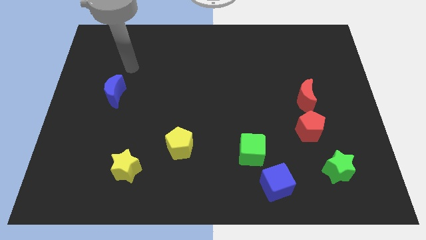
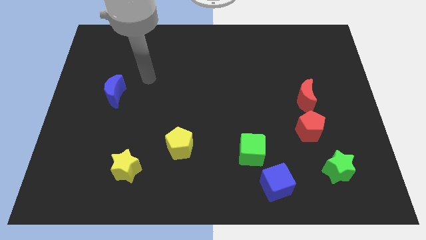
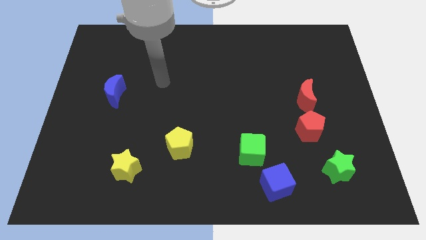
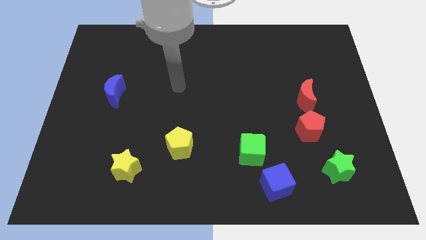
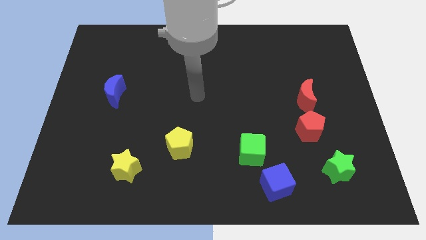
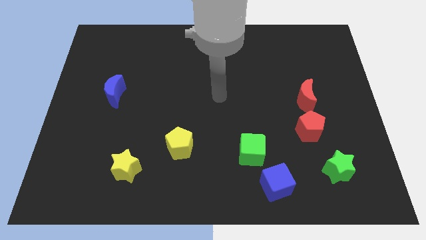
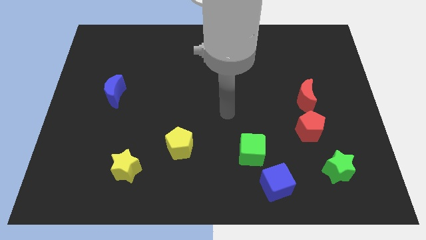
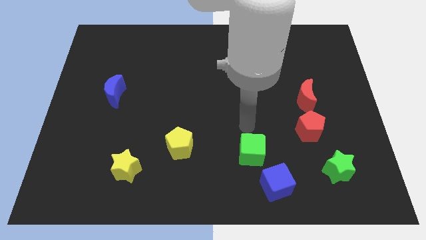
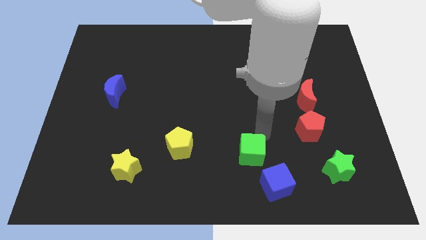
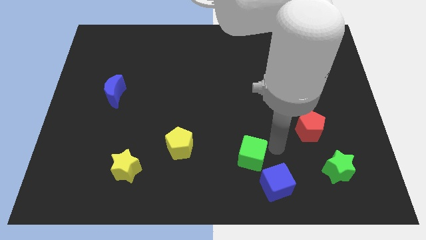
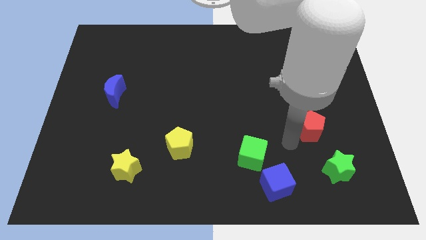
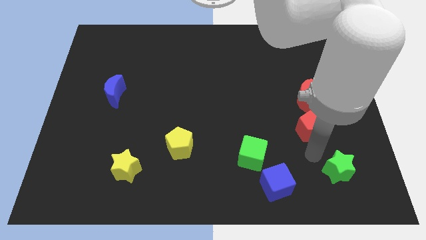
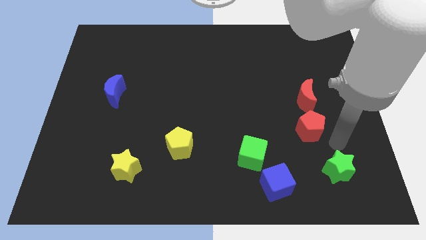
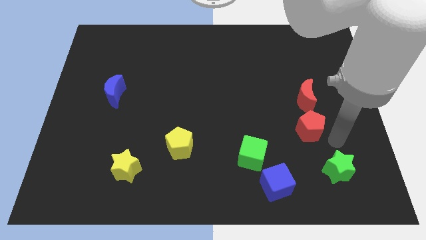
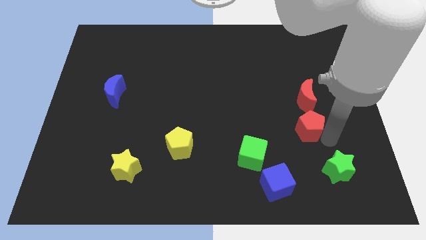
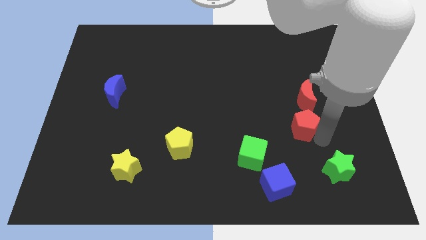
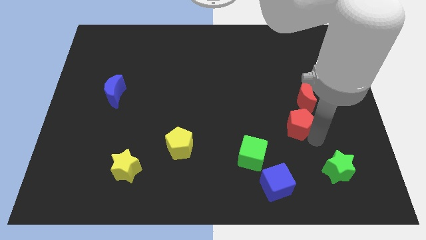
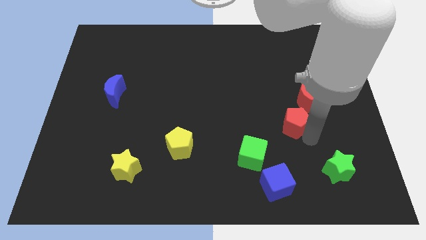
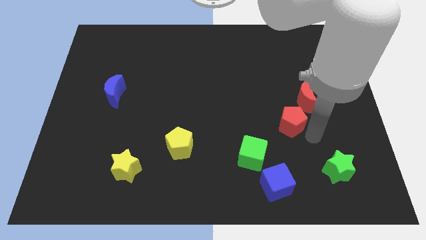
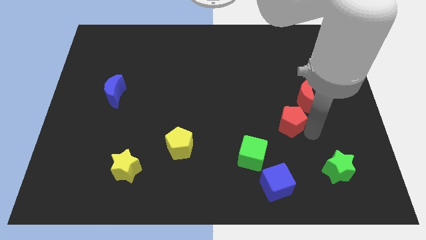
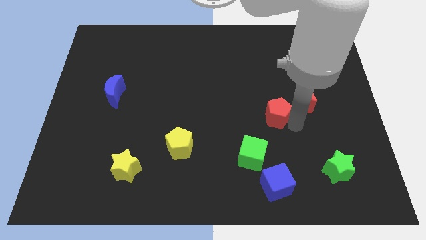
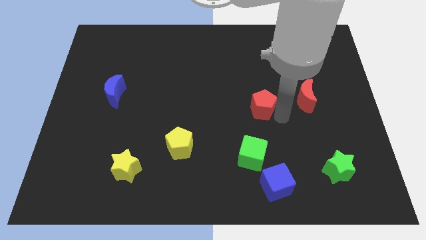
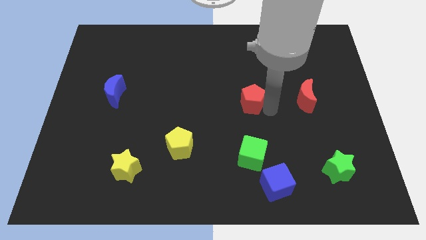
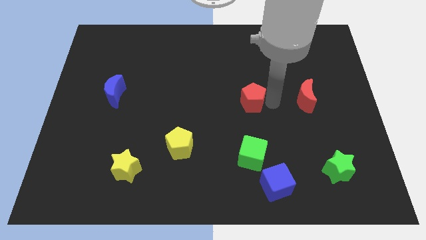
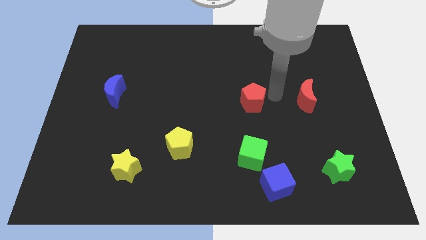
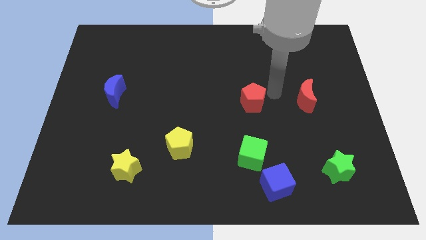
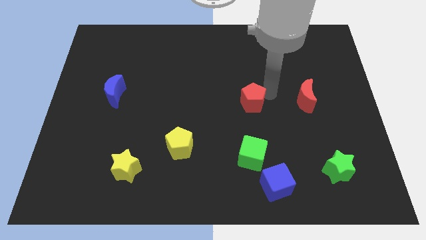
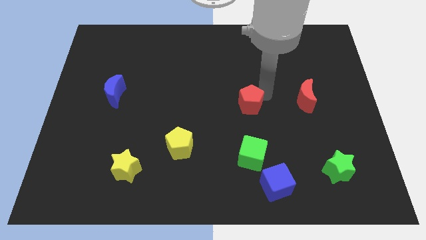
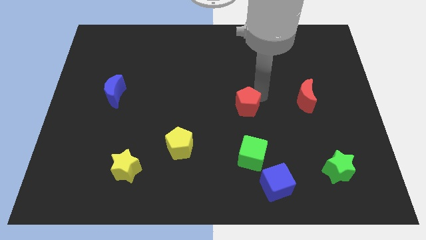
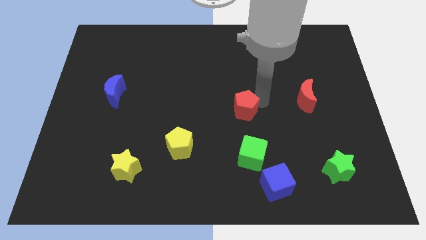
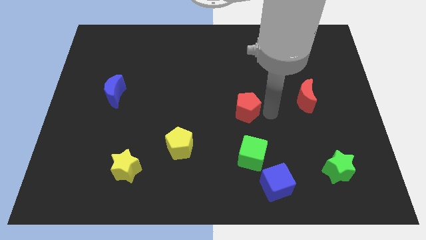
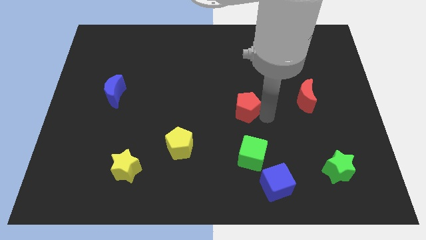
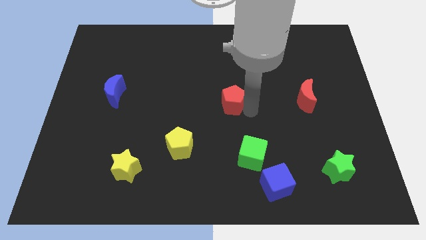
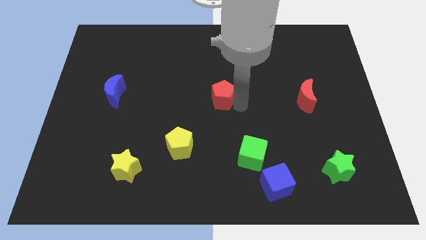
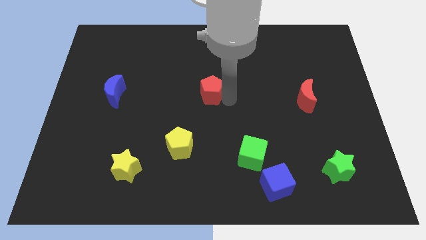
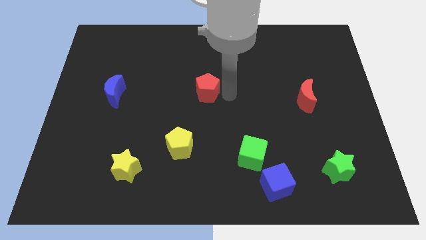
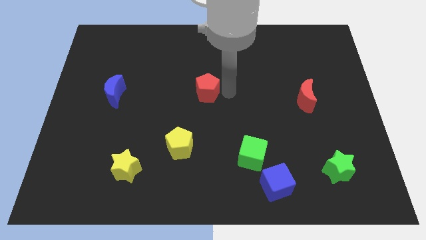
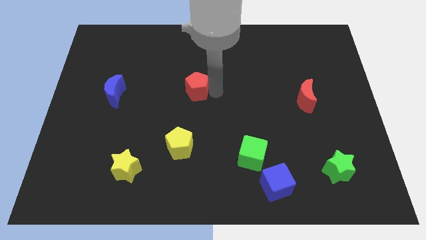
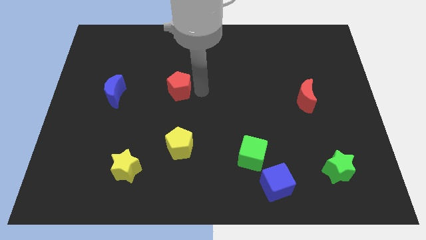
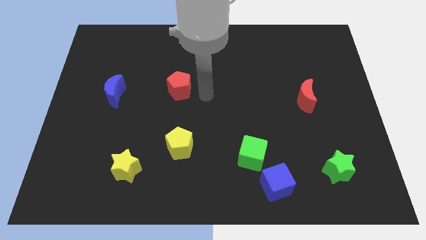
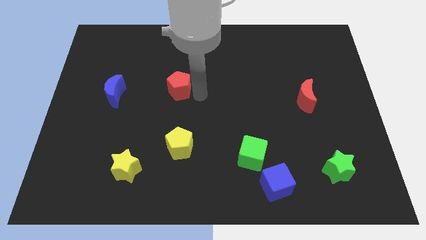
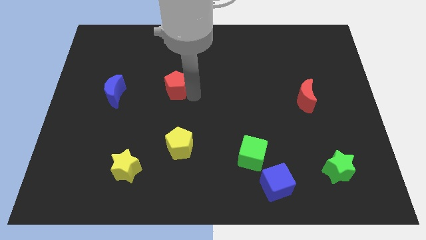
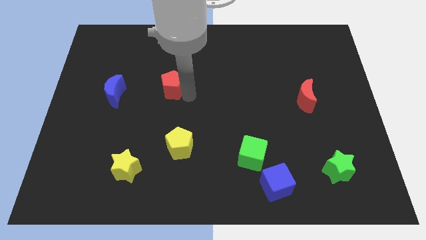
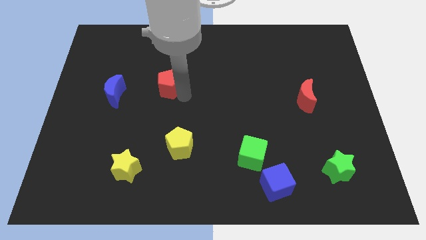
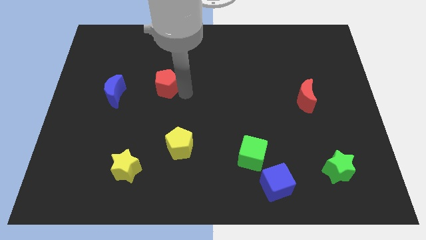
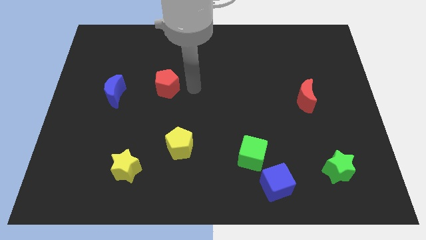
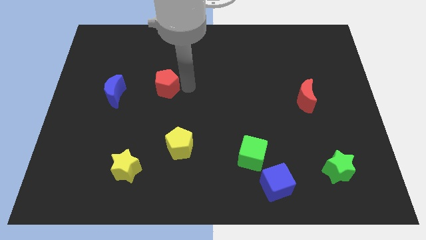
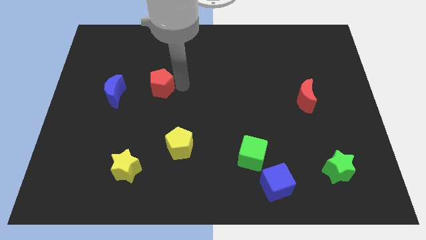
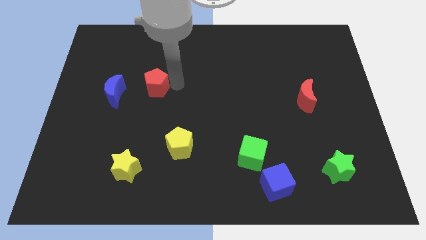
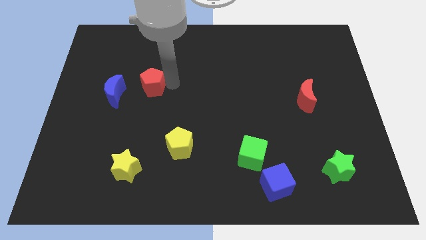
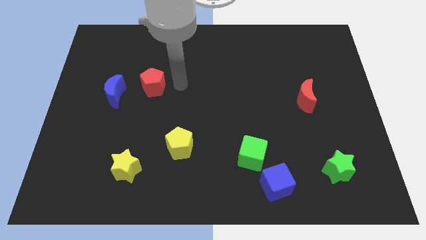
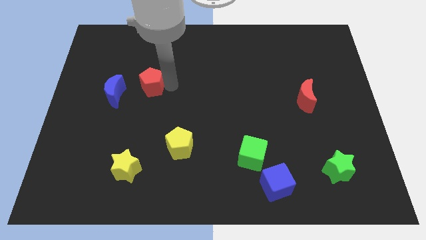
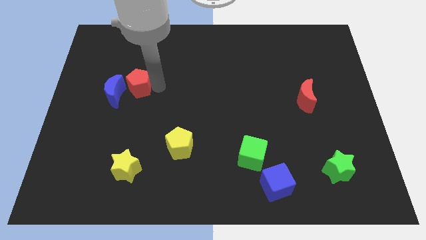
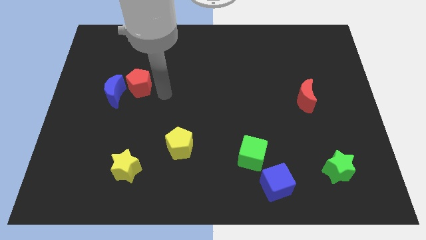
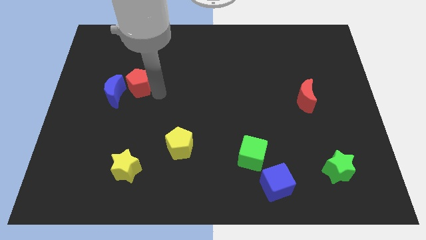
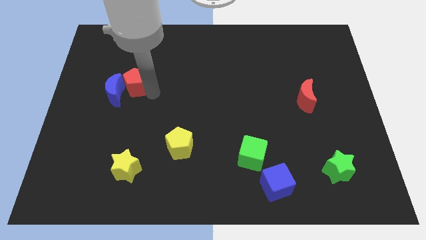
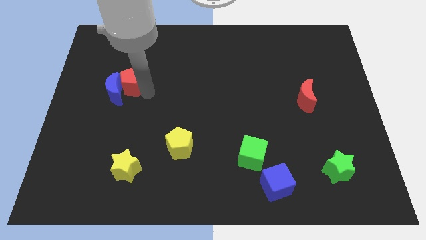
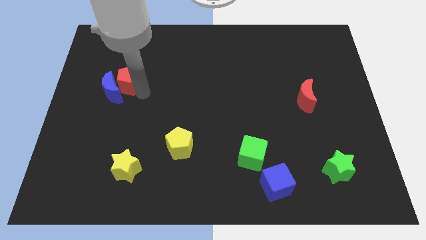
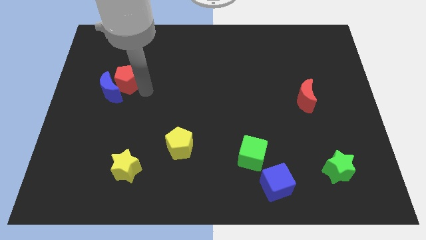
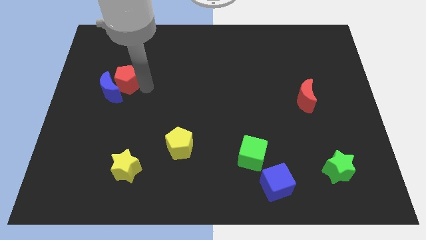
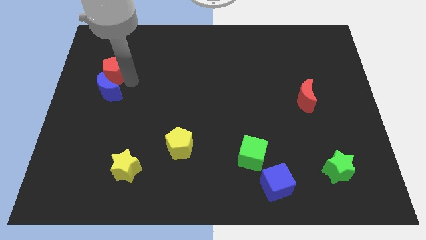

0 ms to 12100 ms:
move the red pentagon diagonally up and to the left of the blue moon

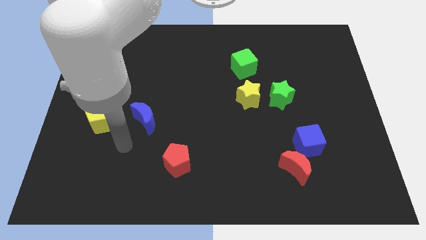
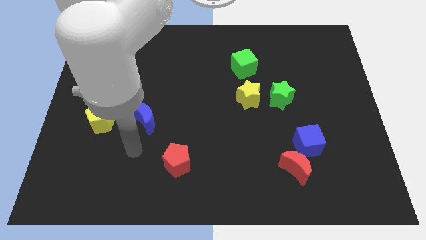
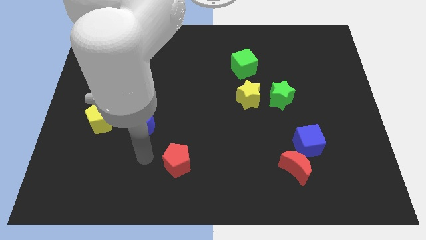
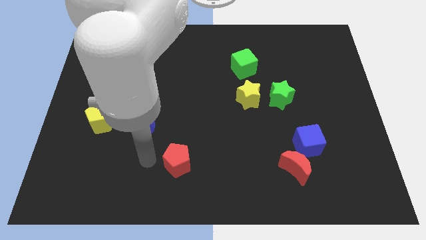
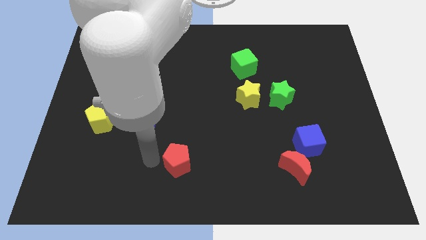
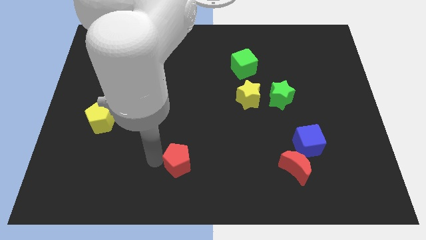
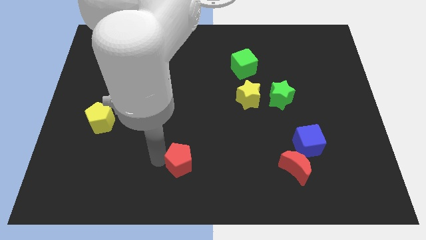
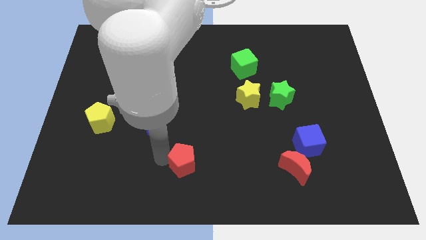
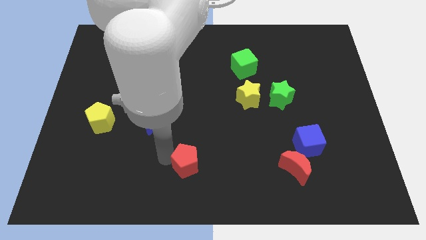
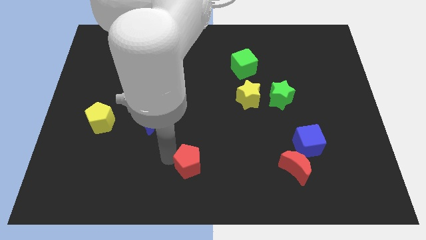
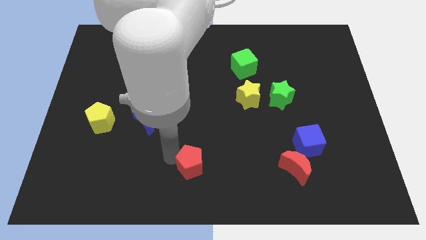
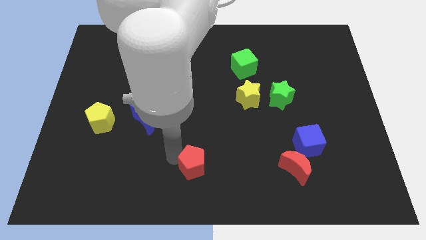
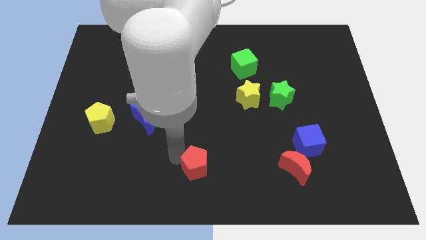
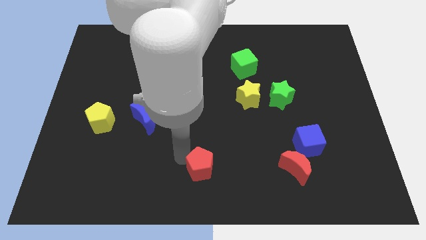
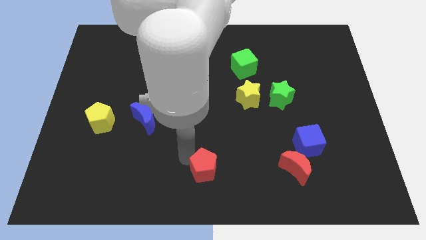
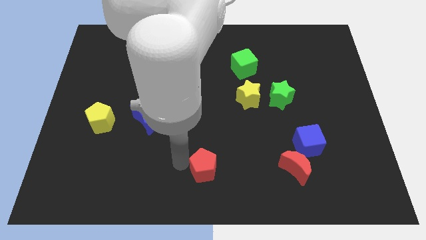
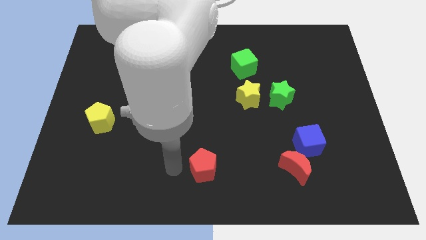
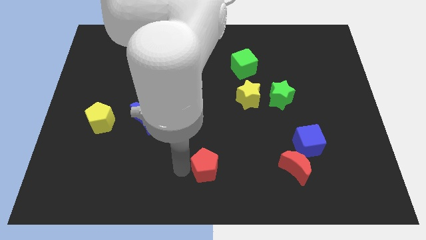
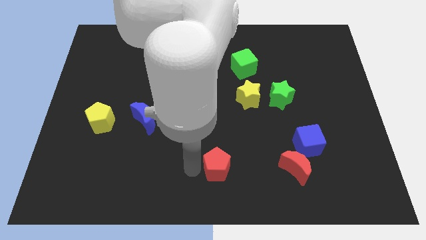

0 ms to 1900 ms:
move the red pentagon left of the red moon
